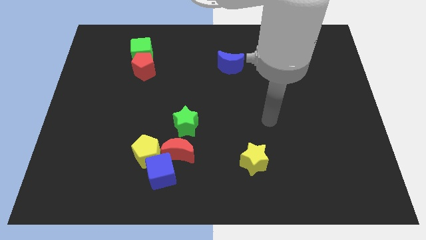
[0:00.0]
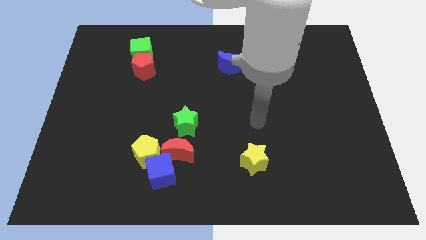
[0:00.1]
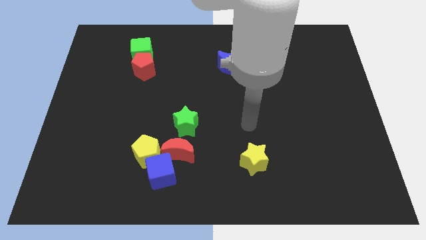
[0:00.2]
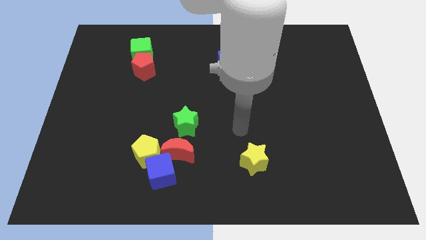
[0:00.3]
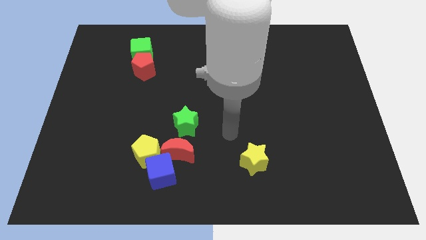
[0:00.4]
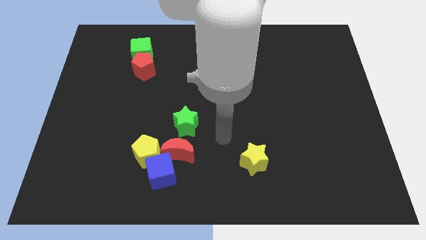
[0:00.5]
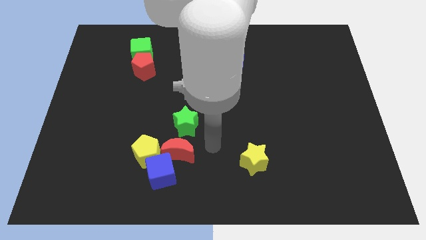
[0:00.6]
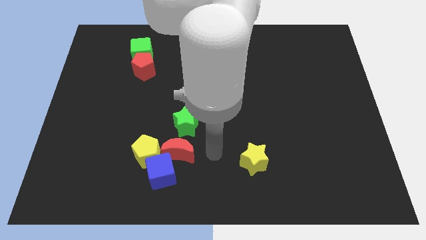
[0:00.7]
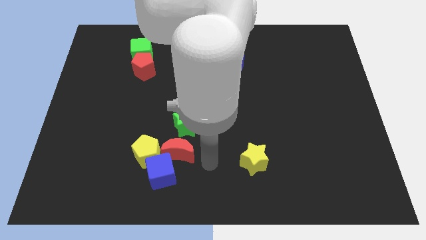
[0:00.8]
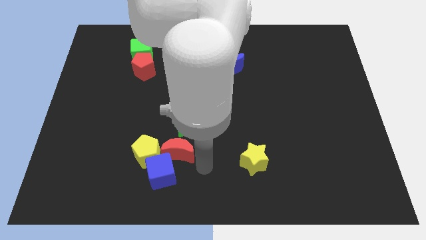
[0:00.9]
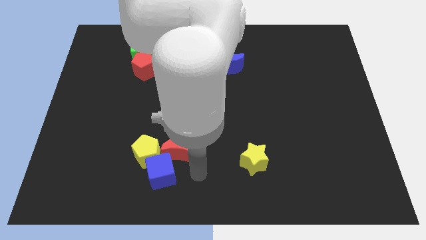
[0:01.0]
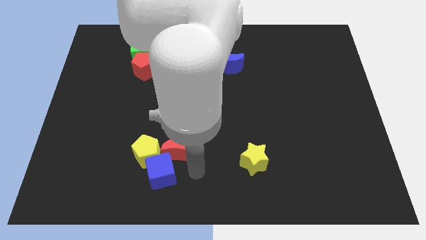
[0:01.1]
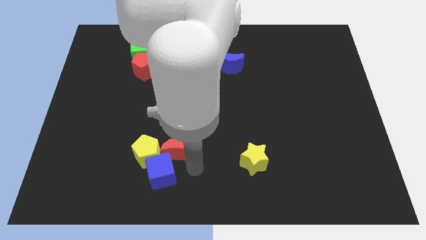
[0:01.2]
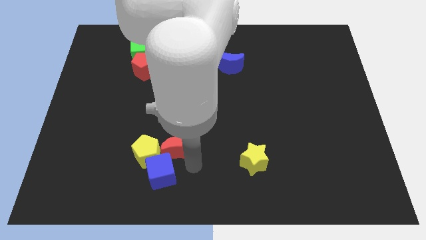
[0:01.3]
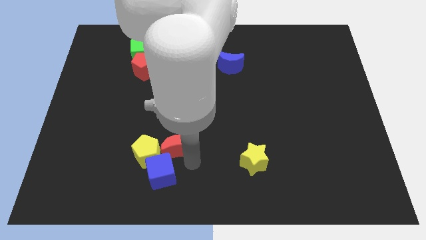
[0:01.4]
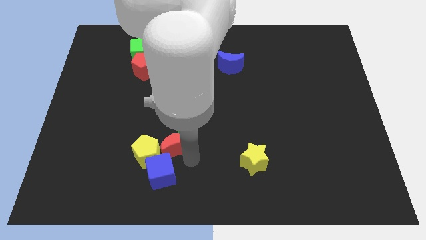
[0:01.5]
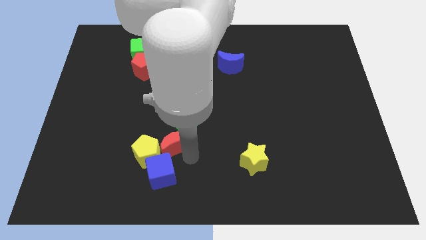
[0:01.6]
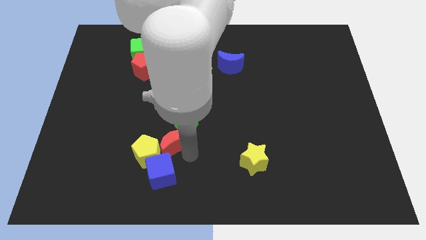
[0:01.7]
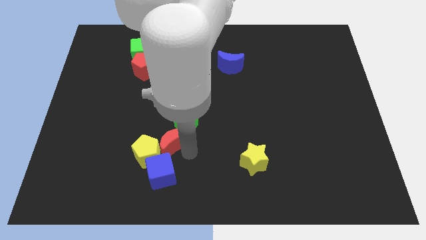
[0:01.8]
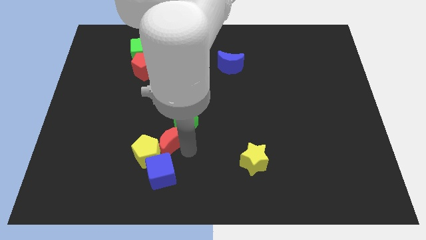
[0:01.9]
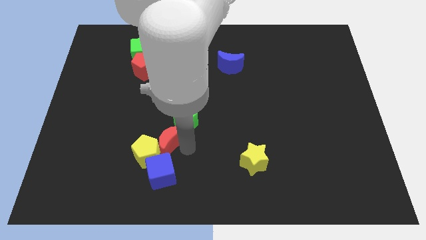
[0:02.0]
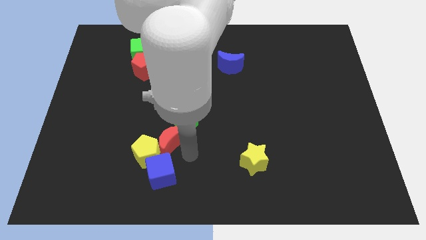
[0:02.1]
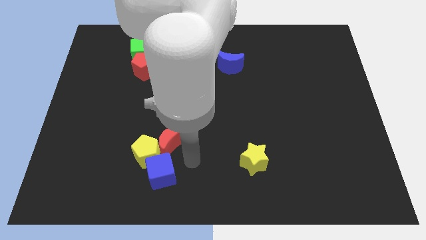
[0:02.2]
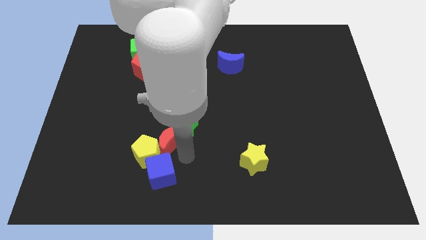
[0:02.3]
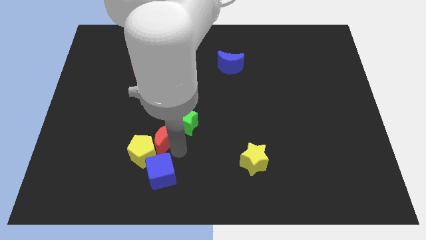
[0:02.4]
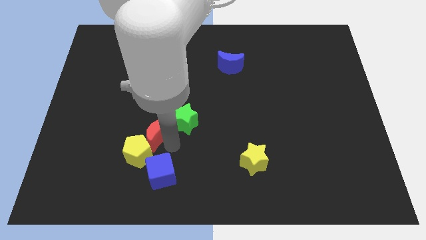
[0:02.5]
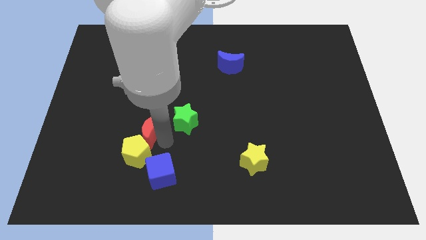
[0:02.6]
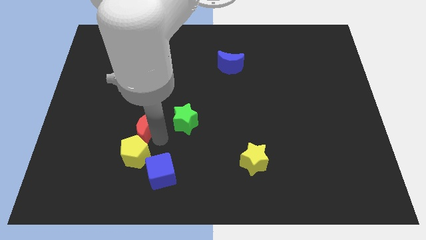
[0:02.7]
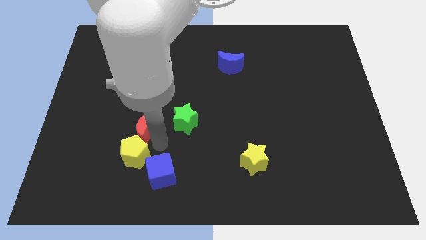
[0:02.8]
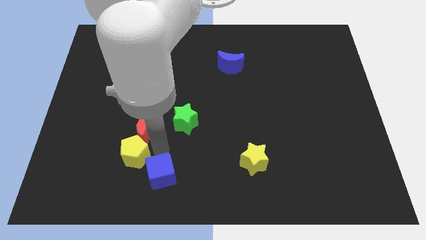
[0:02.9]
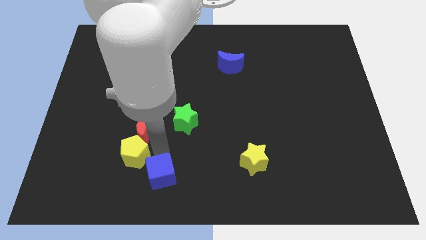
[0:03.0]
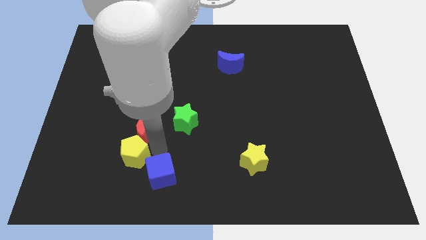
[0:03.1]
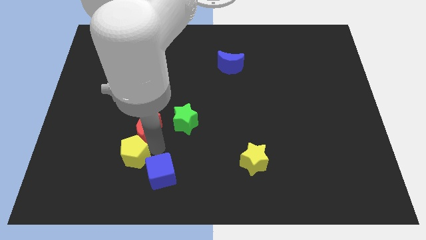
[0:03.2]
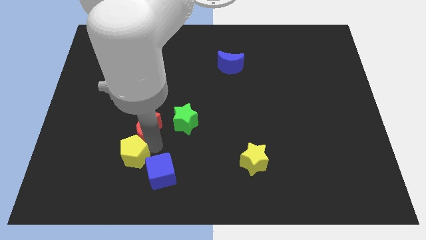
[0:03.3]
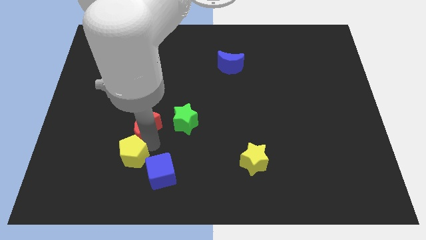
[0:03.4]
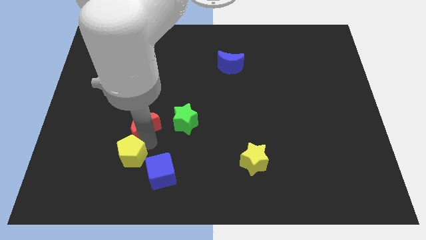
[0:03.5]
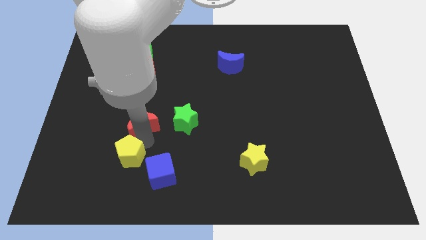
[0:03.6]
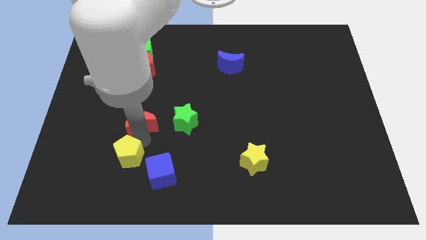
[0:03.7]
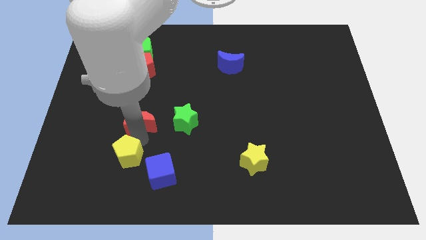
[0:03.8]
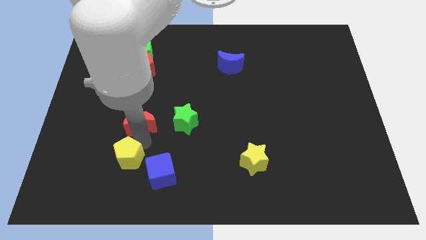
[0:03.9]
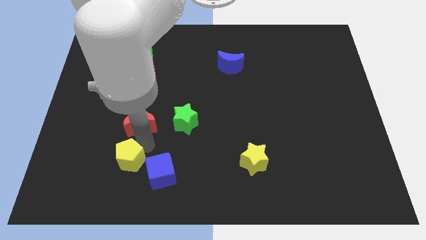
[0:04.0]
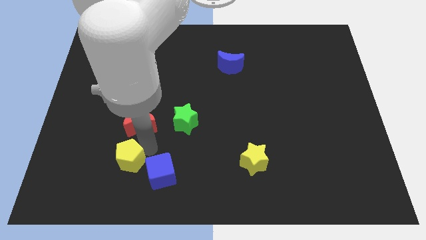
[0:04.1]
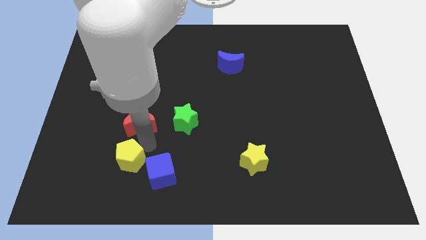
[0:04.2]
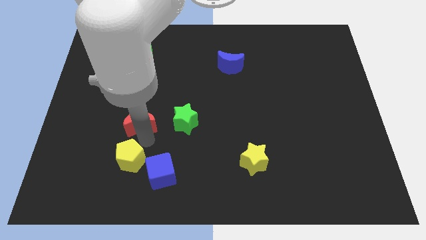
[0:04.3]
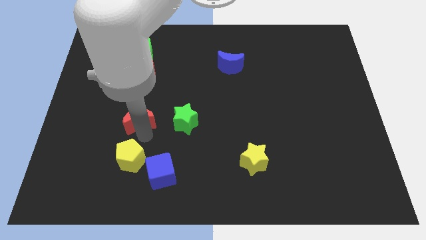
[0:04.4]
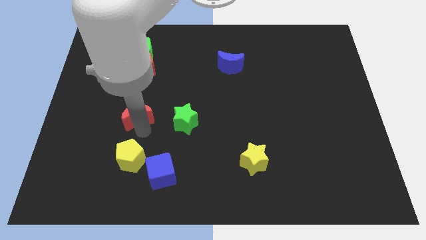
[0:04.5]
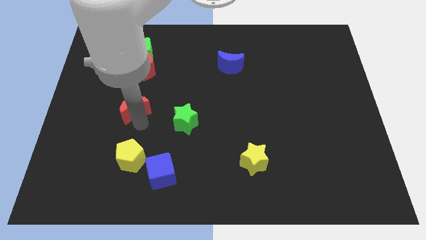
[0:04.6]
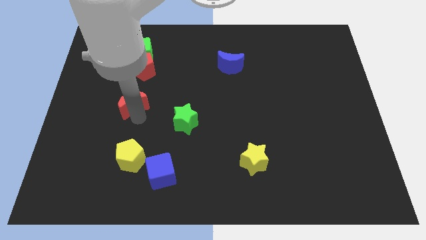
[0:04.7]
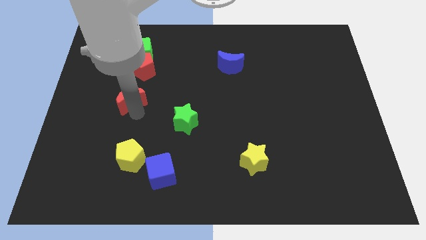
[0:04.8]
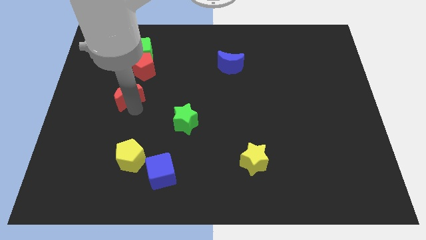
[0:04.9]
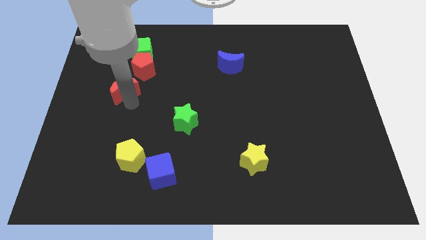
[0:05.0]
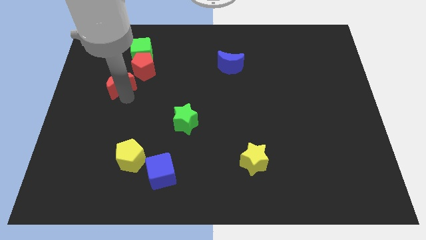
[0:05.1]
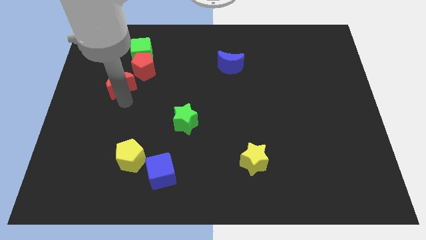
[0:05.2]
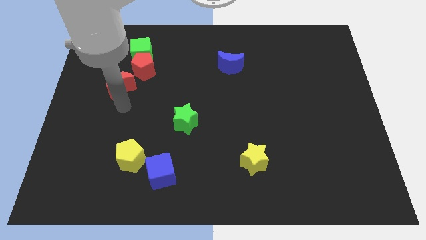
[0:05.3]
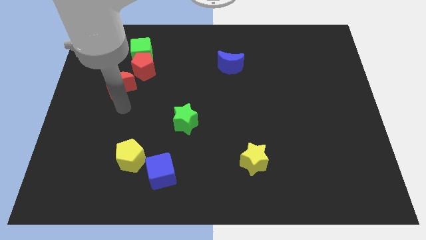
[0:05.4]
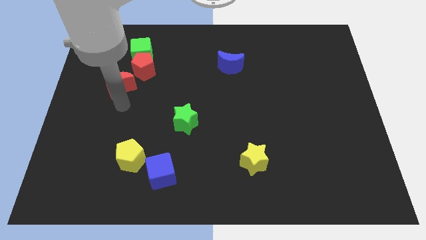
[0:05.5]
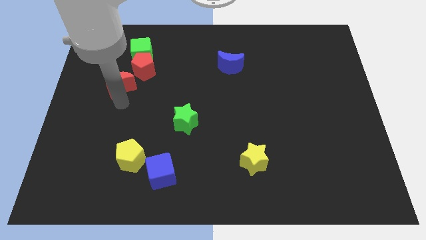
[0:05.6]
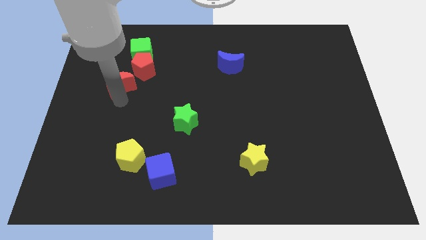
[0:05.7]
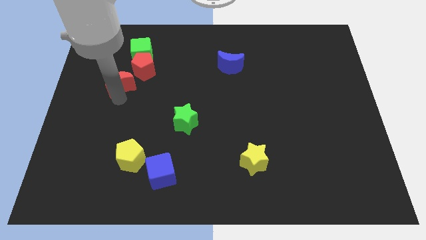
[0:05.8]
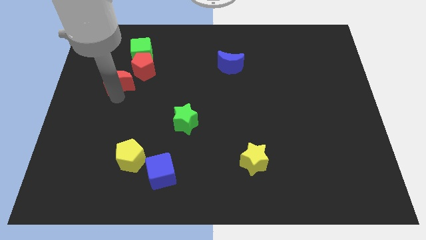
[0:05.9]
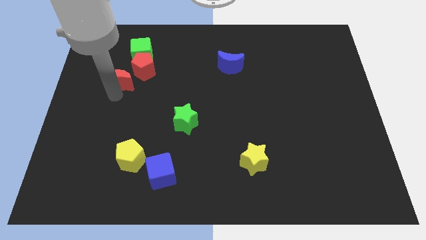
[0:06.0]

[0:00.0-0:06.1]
push the red moon to the bottom left side of the green cube

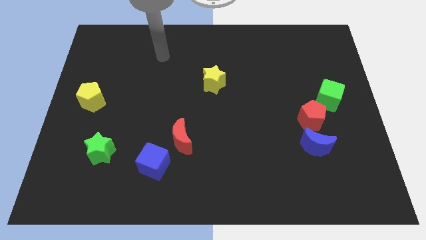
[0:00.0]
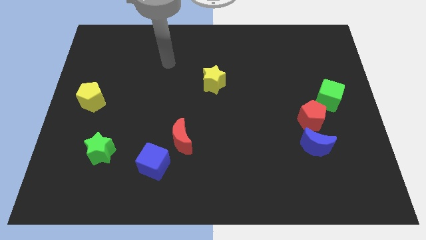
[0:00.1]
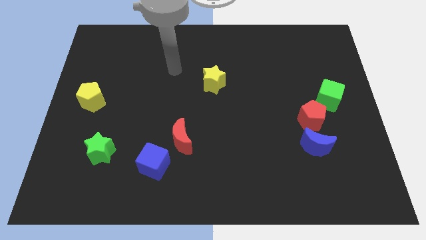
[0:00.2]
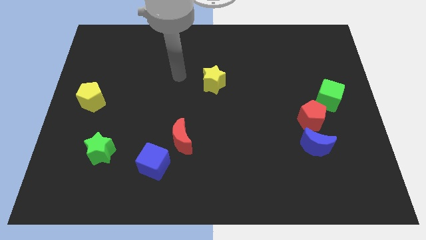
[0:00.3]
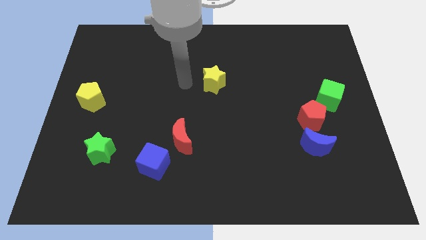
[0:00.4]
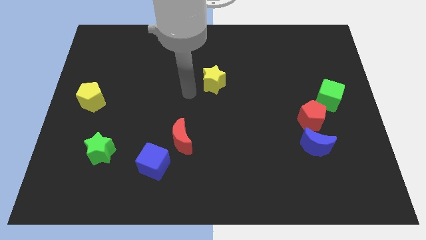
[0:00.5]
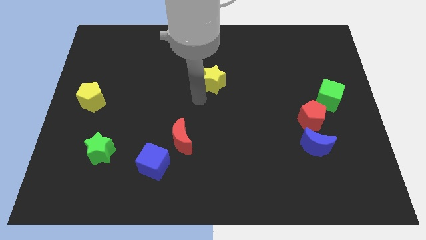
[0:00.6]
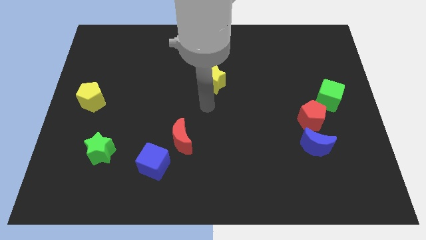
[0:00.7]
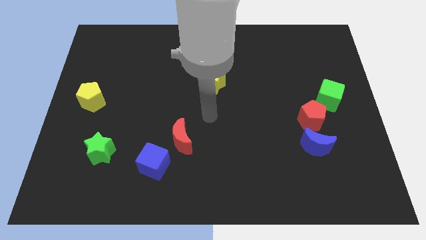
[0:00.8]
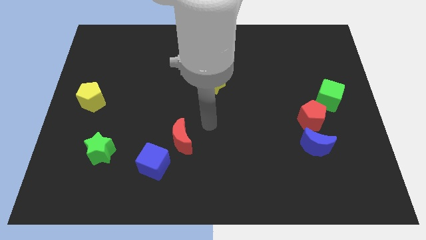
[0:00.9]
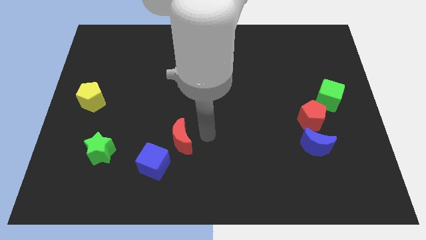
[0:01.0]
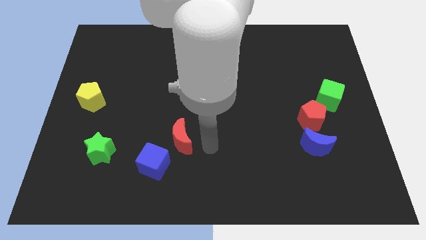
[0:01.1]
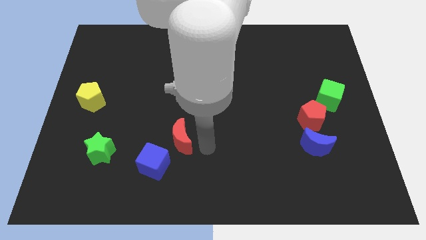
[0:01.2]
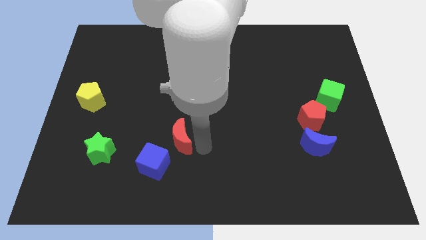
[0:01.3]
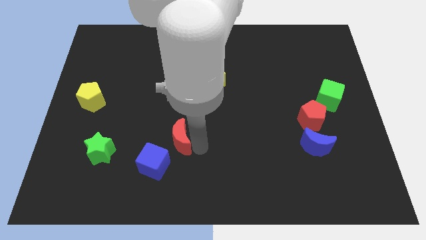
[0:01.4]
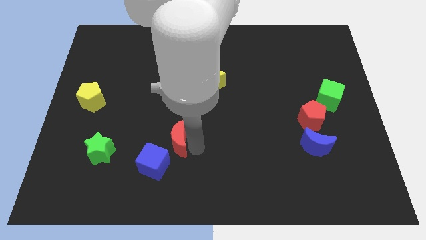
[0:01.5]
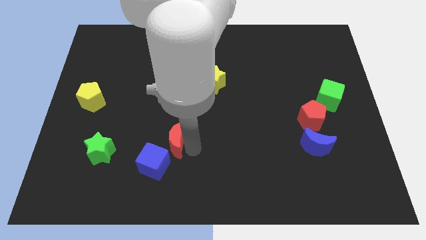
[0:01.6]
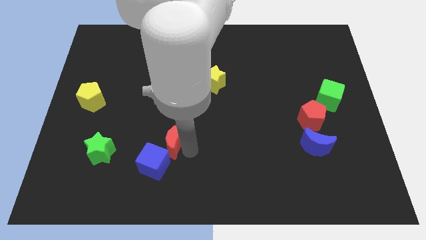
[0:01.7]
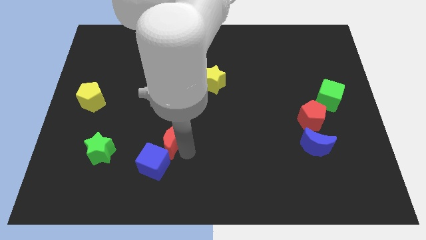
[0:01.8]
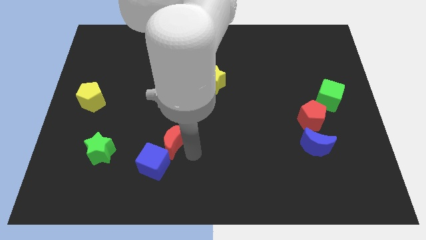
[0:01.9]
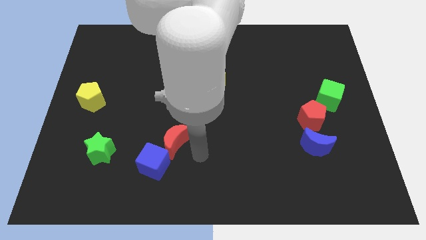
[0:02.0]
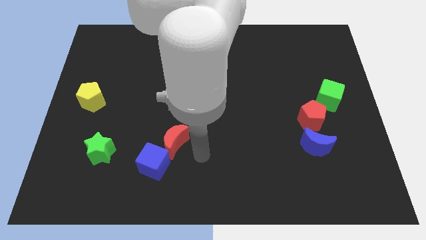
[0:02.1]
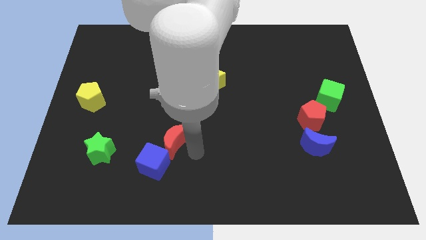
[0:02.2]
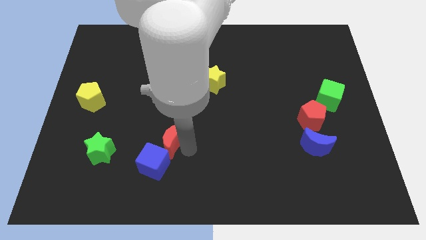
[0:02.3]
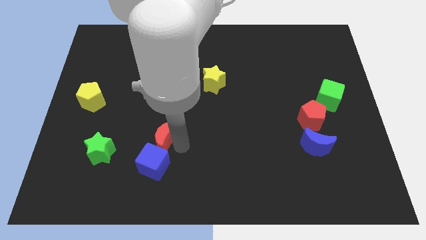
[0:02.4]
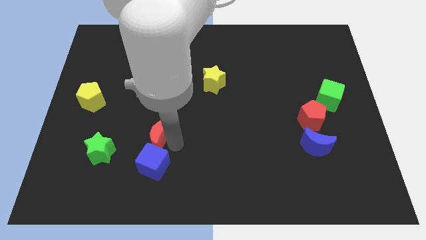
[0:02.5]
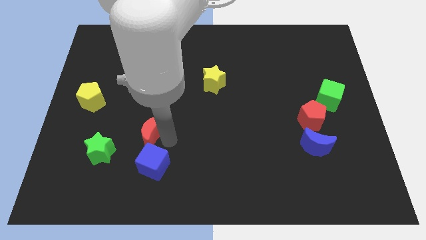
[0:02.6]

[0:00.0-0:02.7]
slide the red moon diagonally up and to the right of the green star
